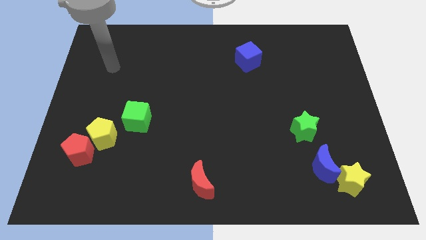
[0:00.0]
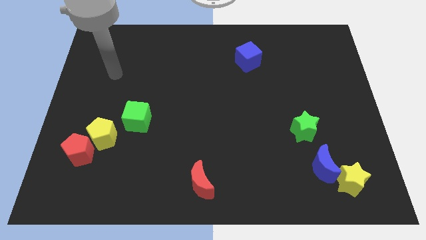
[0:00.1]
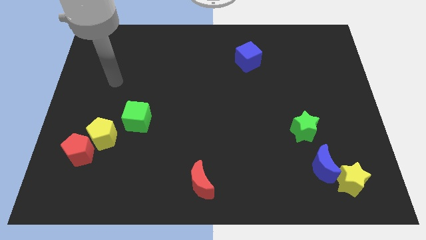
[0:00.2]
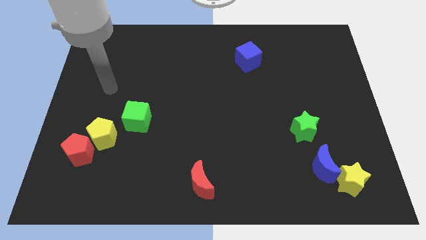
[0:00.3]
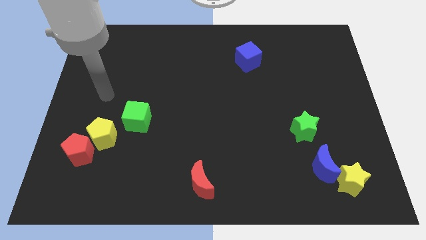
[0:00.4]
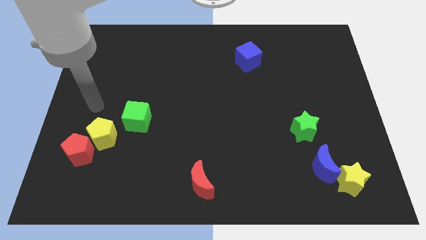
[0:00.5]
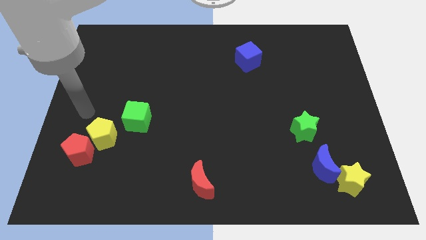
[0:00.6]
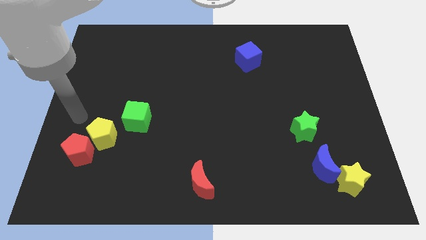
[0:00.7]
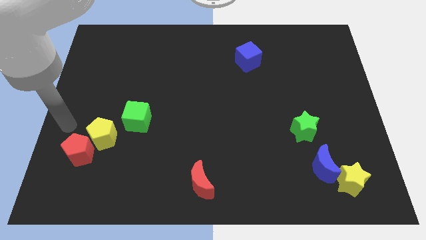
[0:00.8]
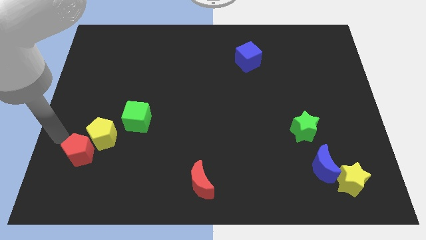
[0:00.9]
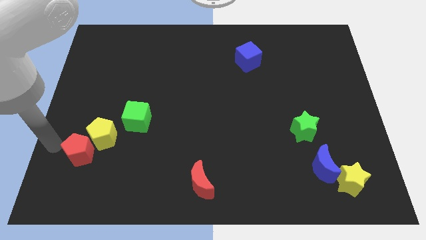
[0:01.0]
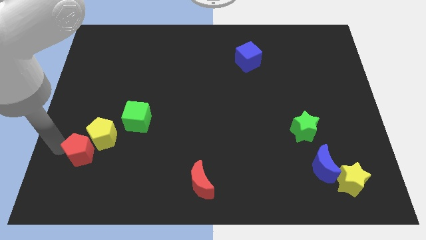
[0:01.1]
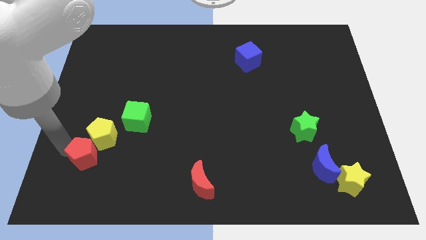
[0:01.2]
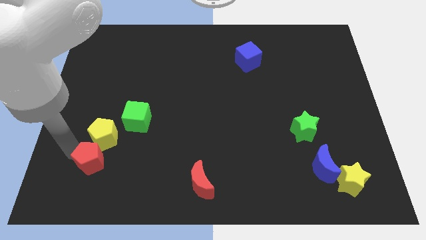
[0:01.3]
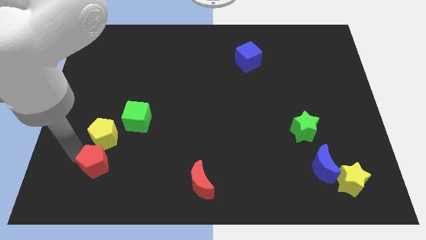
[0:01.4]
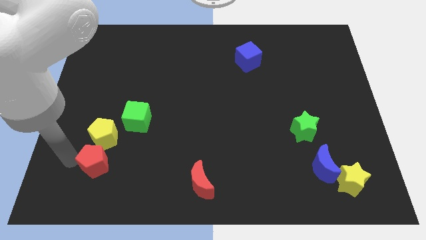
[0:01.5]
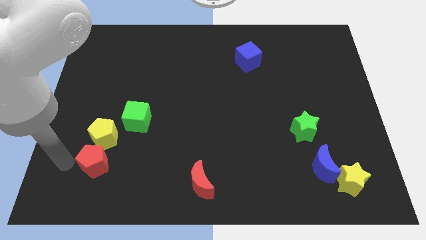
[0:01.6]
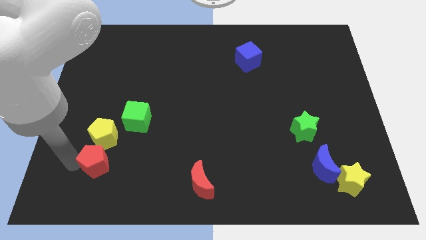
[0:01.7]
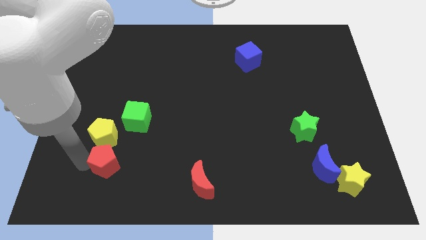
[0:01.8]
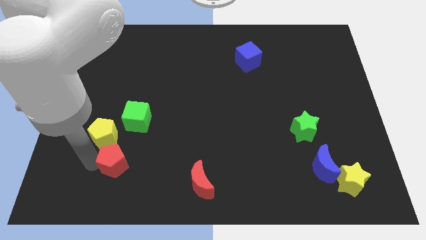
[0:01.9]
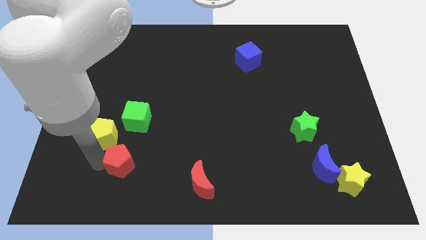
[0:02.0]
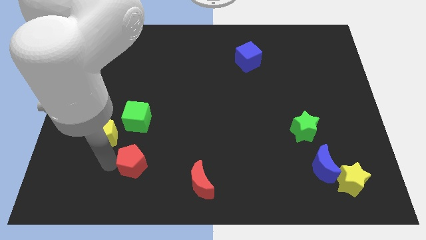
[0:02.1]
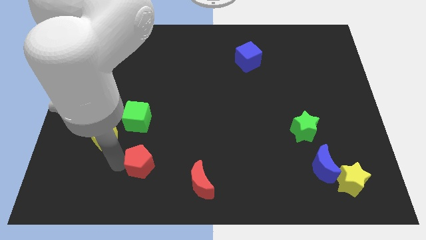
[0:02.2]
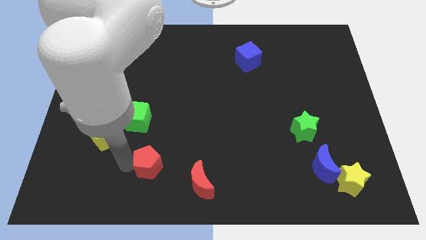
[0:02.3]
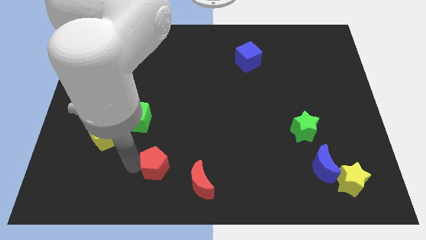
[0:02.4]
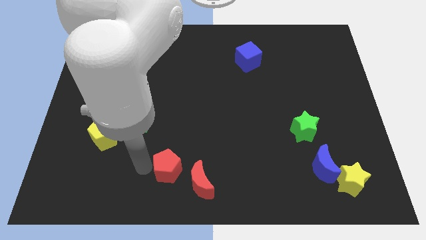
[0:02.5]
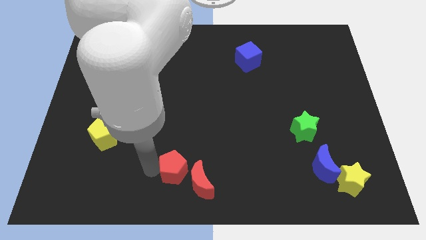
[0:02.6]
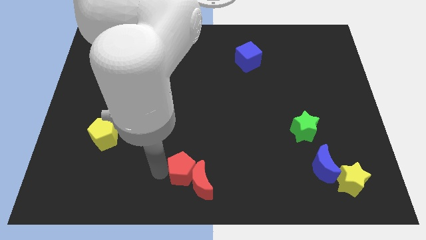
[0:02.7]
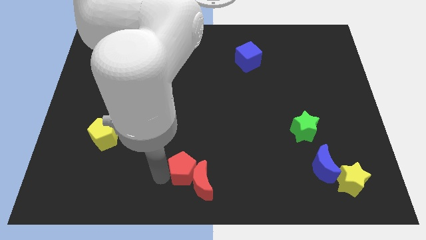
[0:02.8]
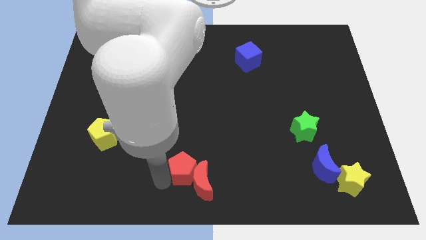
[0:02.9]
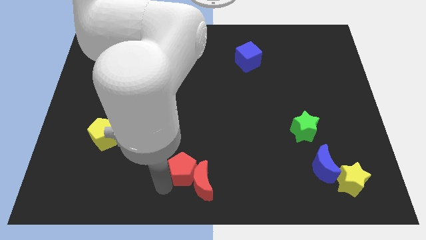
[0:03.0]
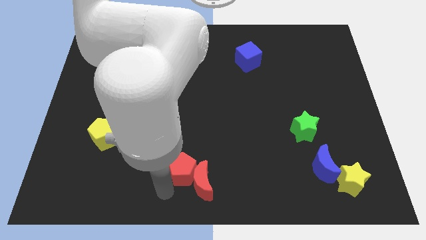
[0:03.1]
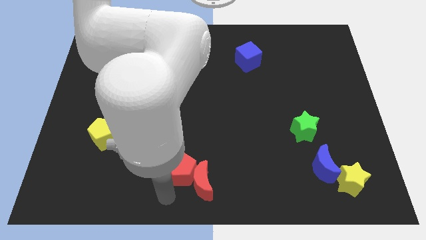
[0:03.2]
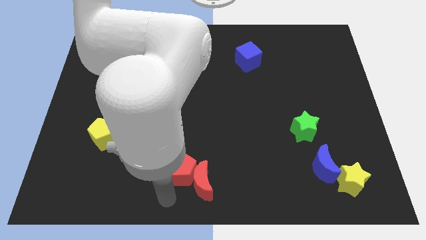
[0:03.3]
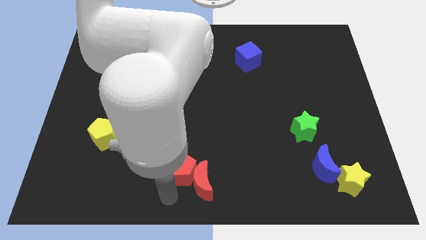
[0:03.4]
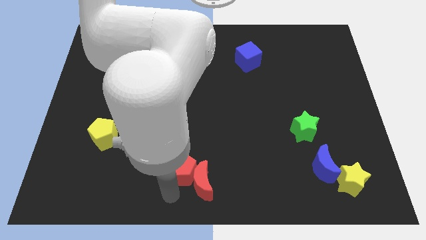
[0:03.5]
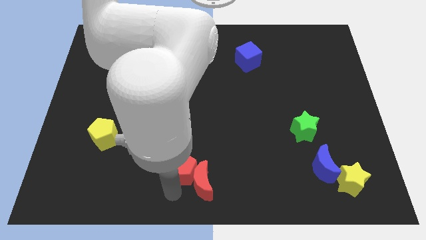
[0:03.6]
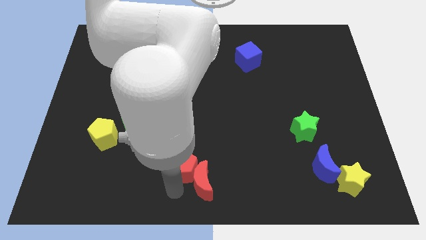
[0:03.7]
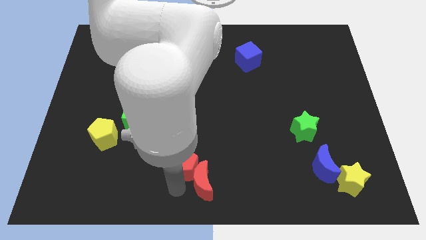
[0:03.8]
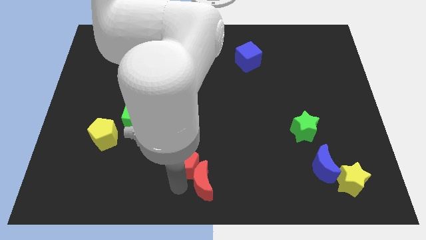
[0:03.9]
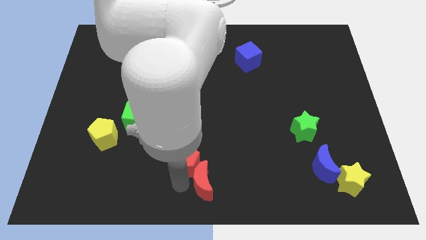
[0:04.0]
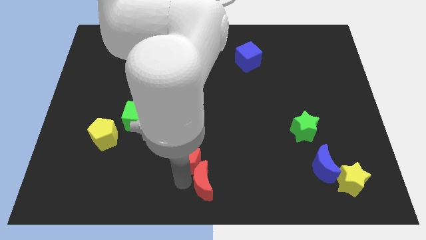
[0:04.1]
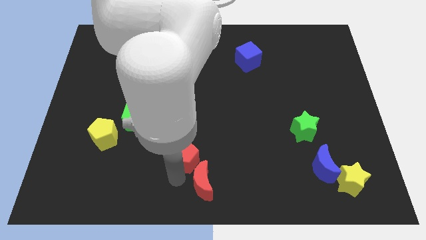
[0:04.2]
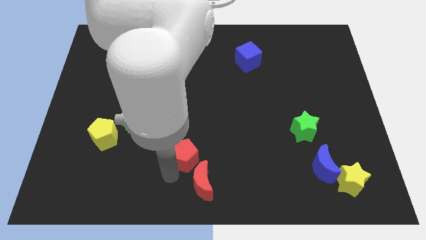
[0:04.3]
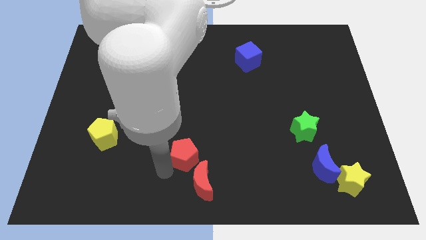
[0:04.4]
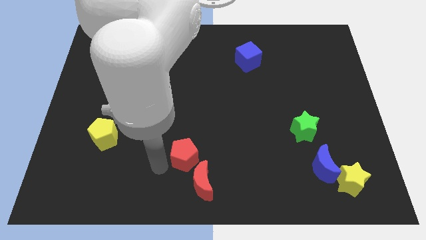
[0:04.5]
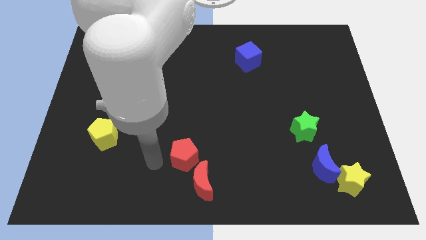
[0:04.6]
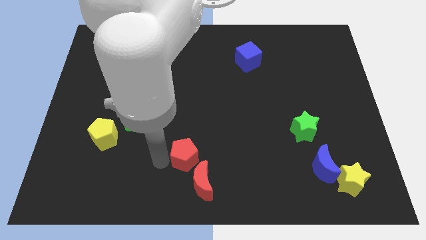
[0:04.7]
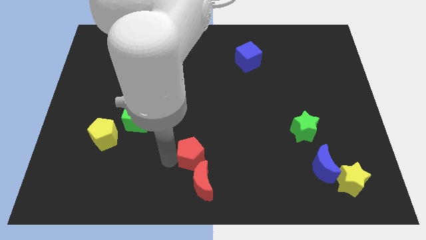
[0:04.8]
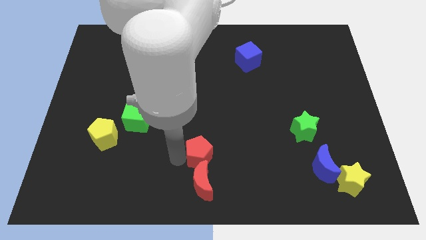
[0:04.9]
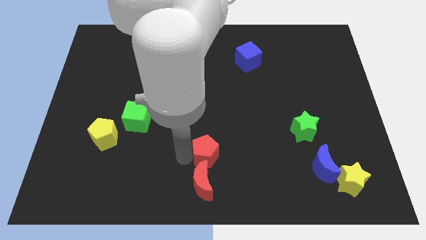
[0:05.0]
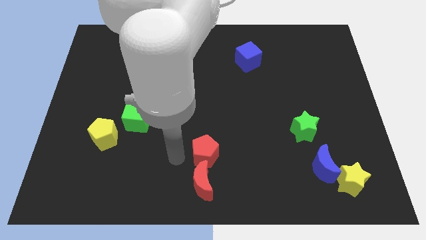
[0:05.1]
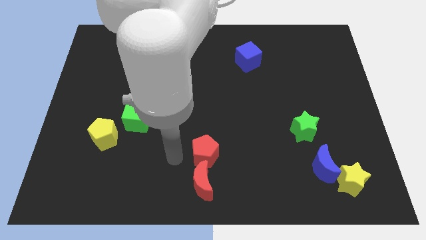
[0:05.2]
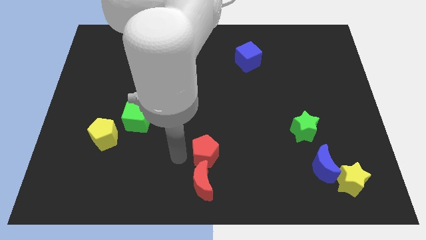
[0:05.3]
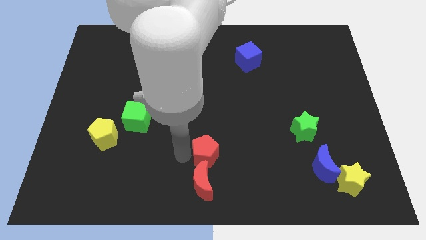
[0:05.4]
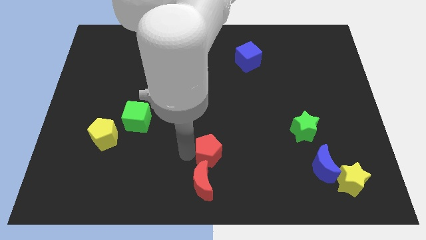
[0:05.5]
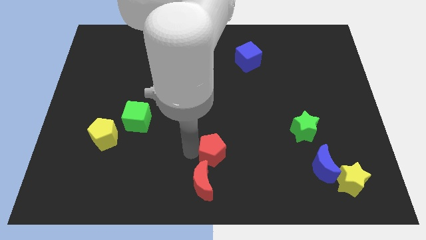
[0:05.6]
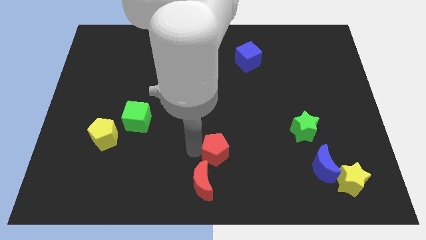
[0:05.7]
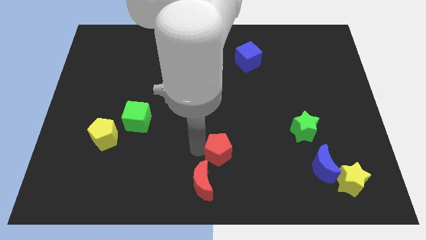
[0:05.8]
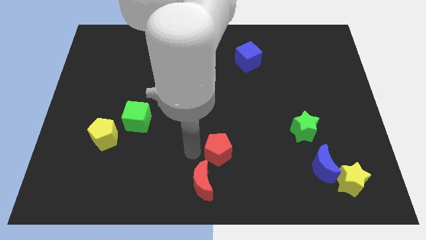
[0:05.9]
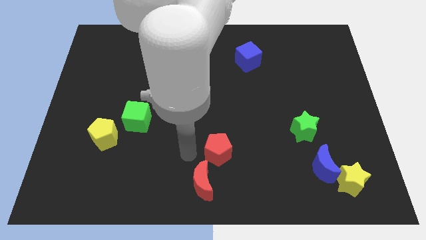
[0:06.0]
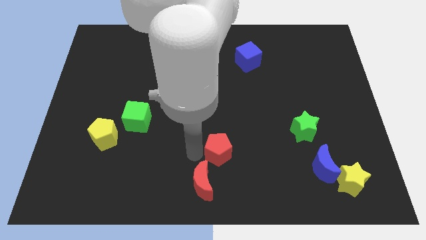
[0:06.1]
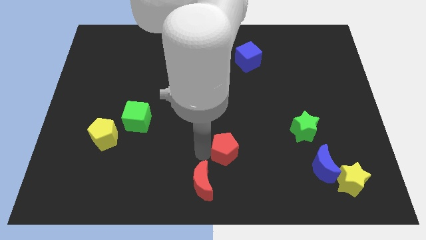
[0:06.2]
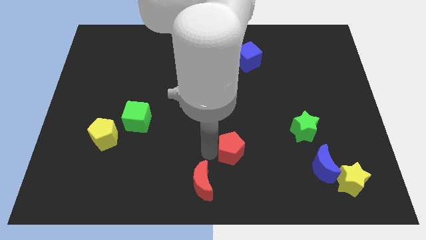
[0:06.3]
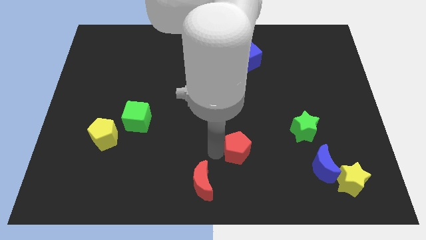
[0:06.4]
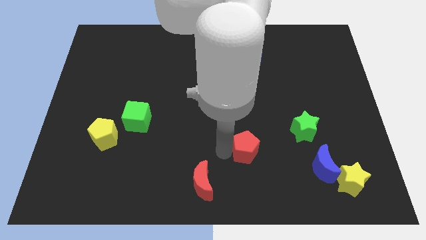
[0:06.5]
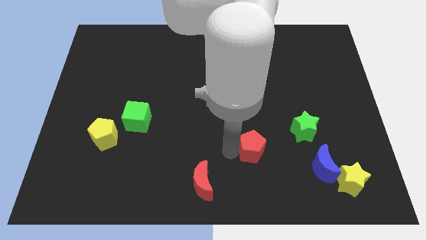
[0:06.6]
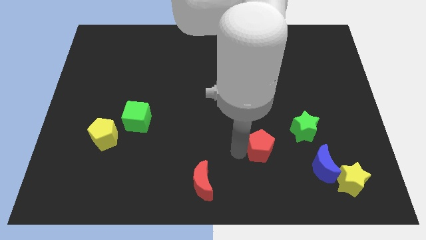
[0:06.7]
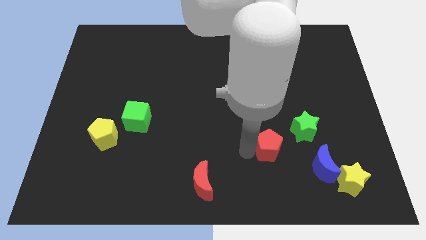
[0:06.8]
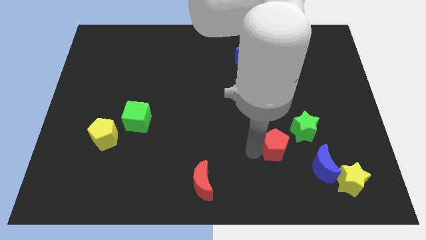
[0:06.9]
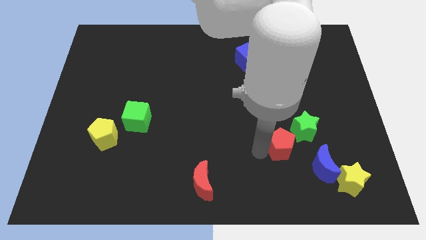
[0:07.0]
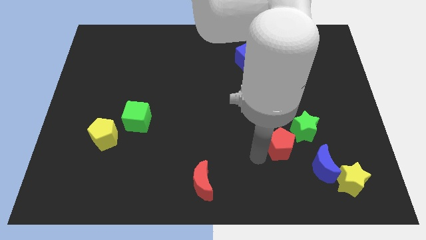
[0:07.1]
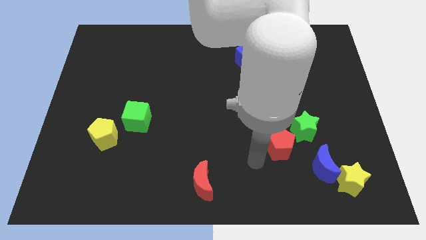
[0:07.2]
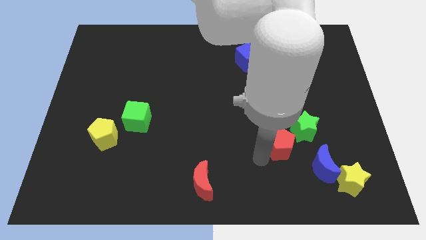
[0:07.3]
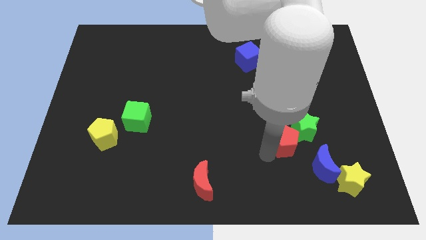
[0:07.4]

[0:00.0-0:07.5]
put the red pentagon towards the green star
